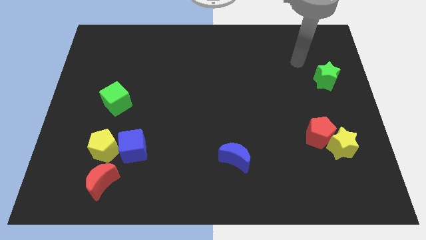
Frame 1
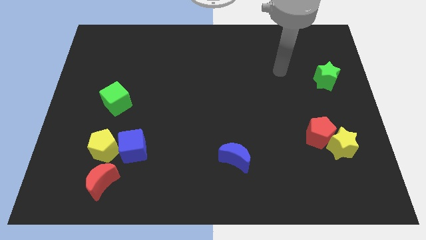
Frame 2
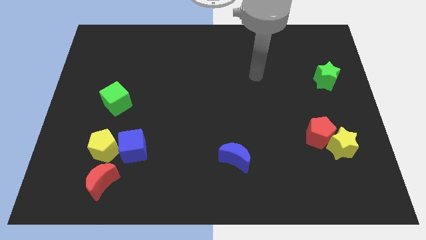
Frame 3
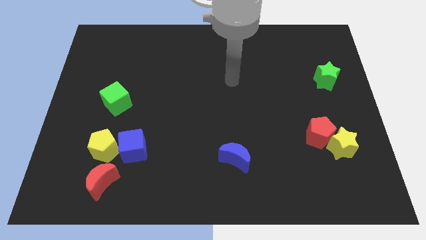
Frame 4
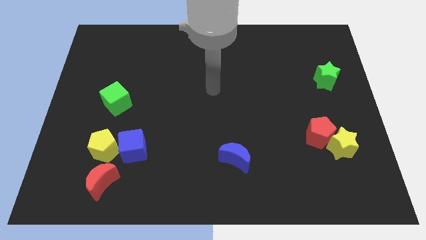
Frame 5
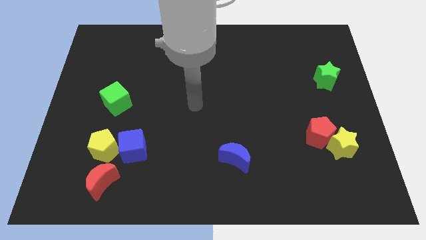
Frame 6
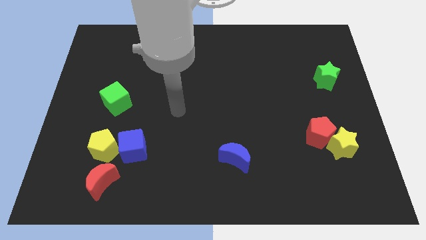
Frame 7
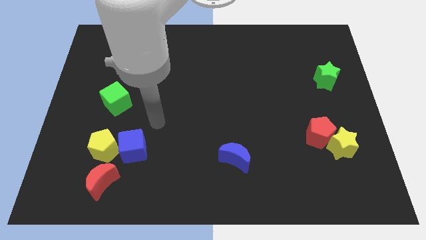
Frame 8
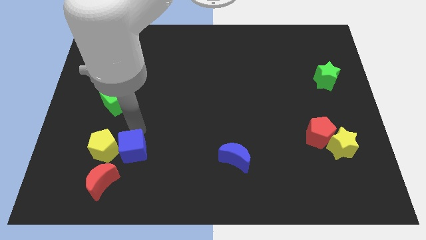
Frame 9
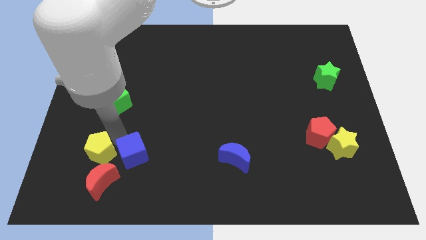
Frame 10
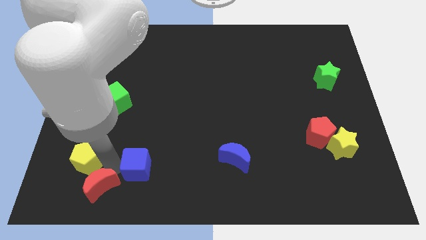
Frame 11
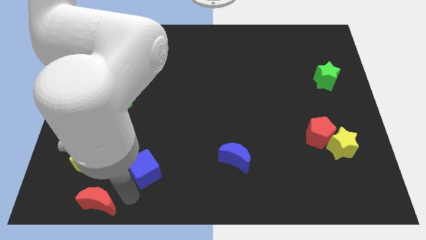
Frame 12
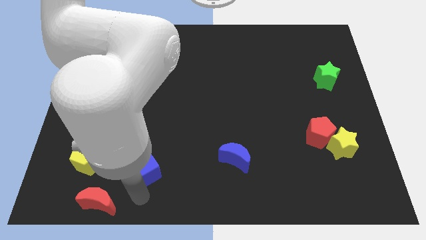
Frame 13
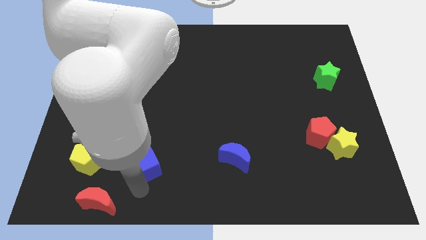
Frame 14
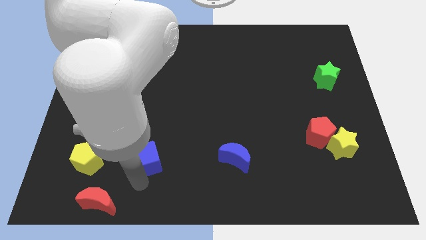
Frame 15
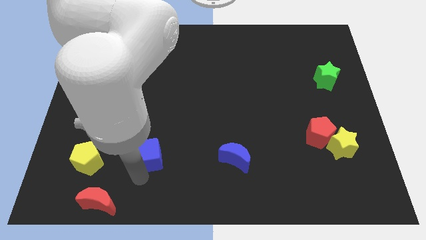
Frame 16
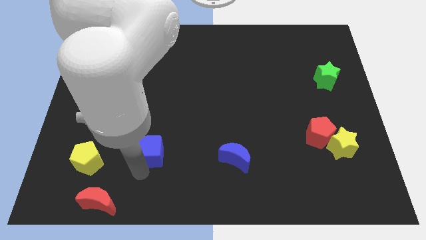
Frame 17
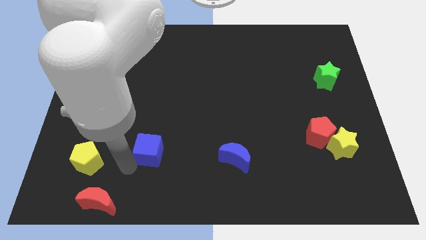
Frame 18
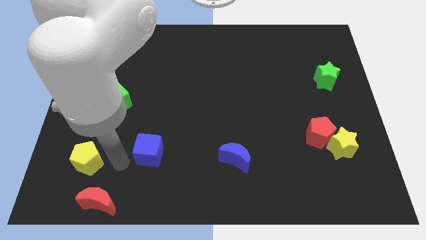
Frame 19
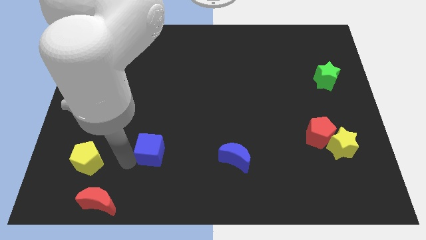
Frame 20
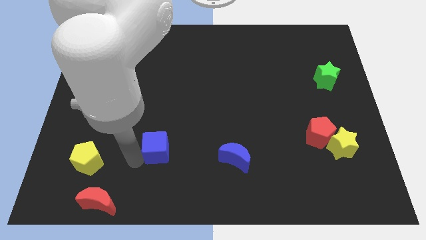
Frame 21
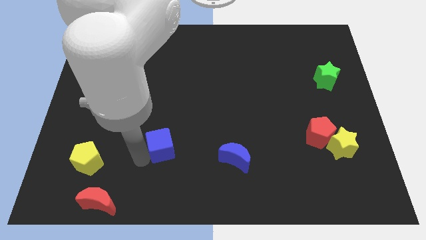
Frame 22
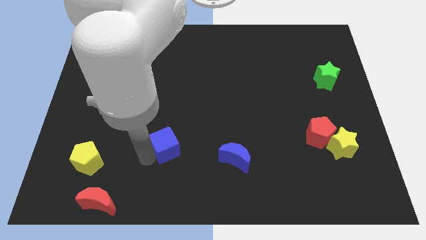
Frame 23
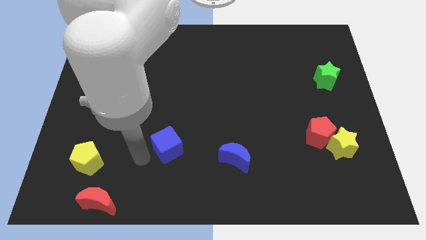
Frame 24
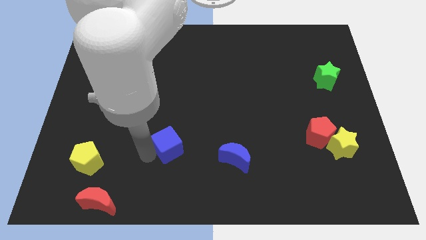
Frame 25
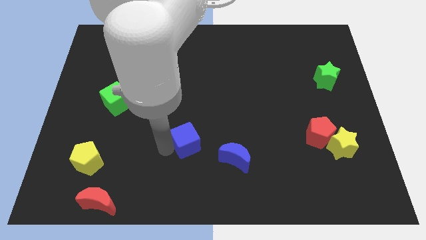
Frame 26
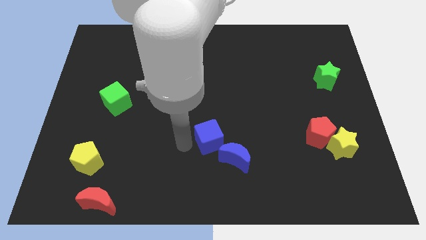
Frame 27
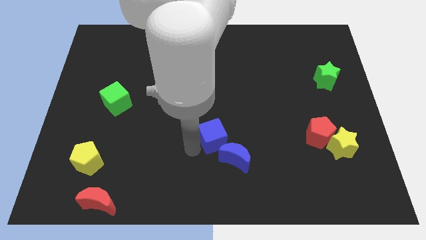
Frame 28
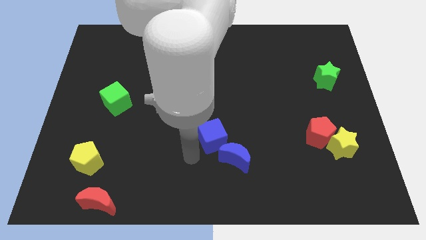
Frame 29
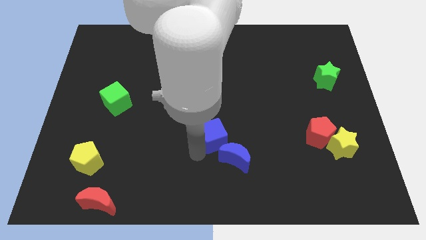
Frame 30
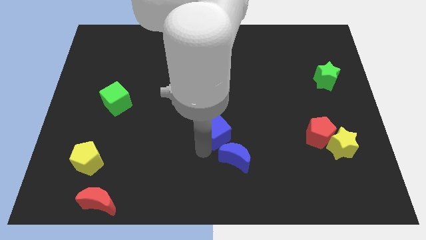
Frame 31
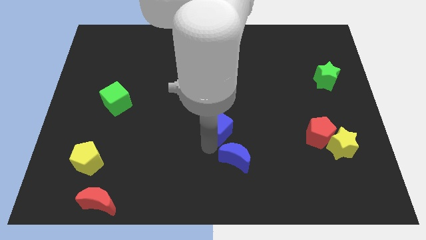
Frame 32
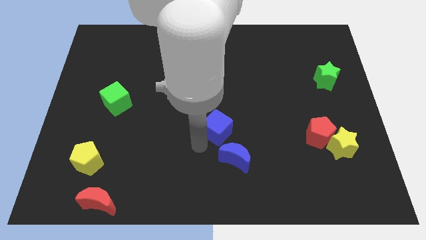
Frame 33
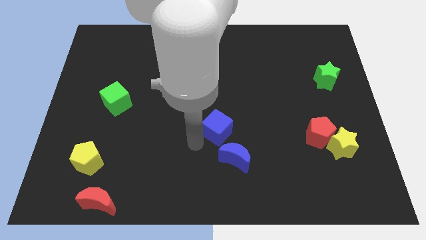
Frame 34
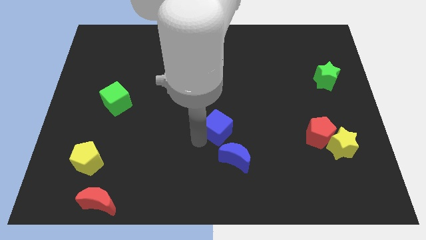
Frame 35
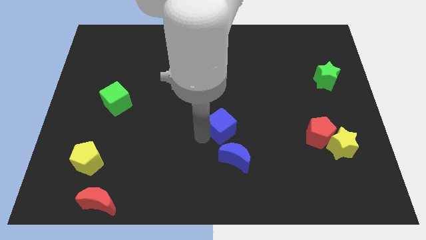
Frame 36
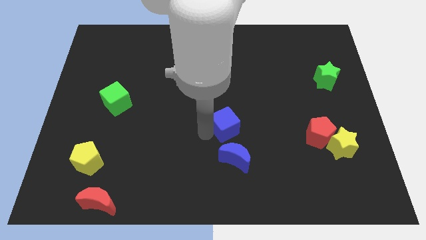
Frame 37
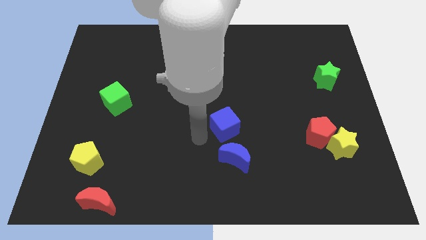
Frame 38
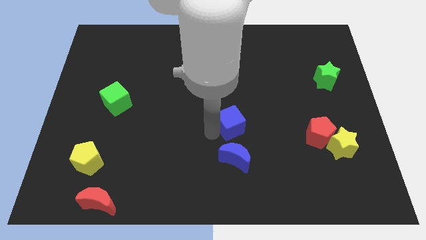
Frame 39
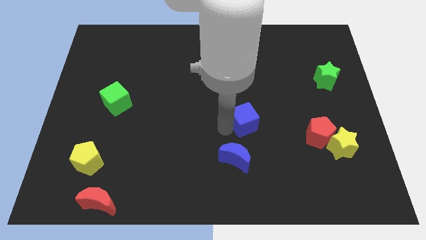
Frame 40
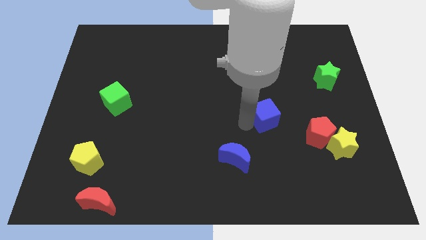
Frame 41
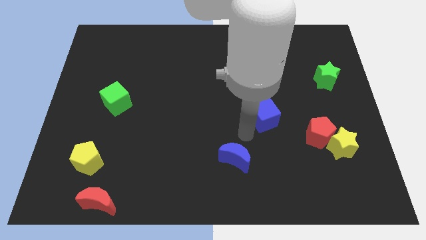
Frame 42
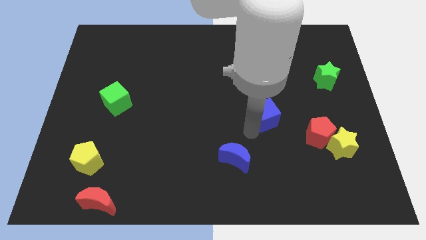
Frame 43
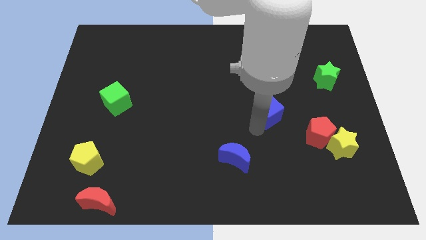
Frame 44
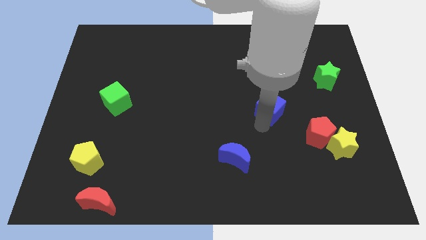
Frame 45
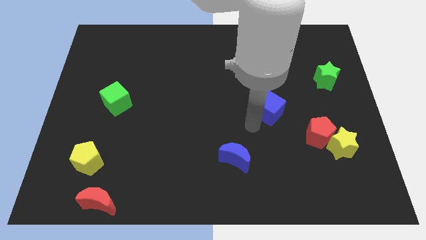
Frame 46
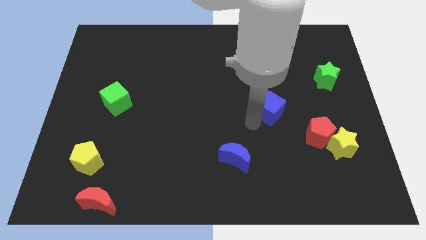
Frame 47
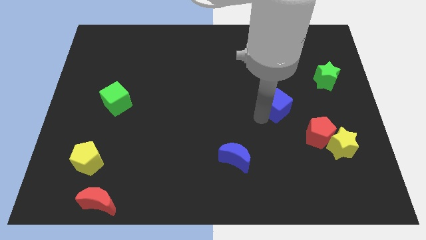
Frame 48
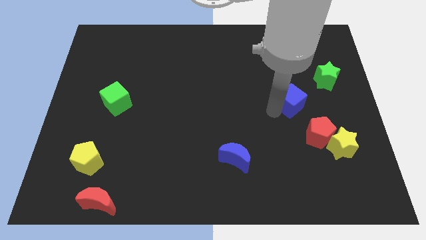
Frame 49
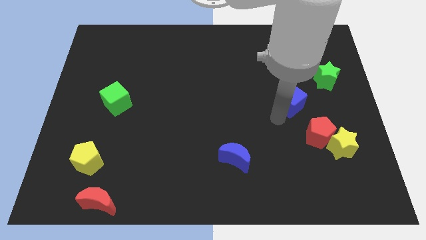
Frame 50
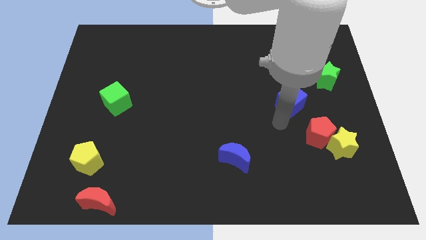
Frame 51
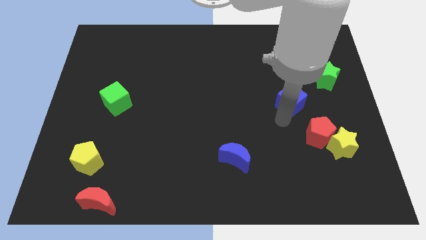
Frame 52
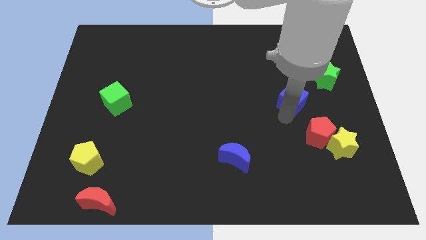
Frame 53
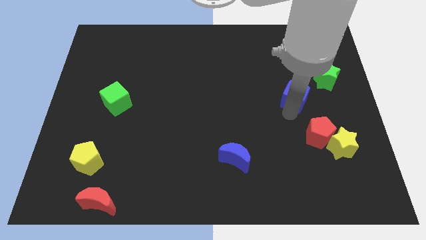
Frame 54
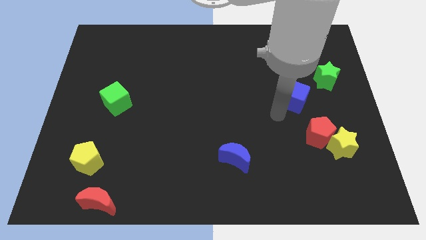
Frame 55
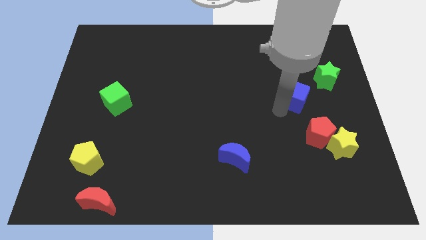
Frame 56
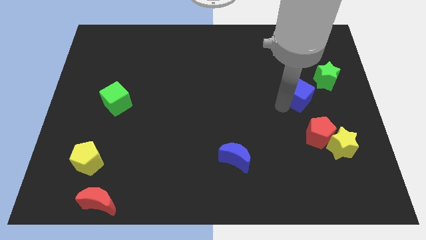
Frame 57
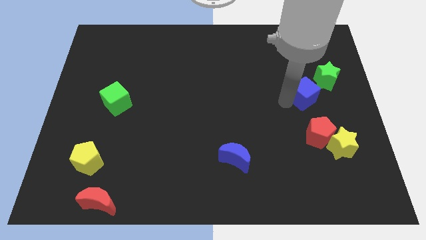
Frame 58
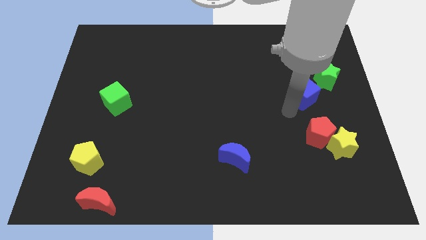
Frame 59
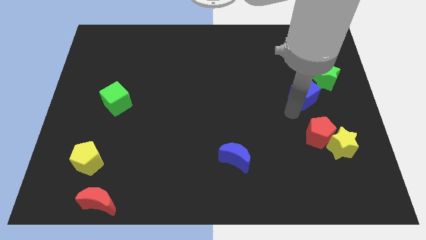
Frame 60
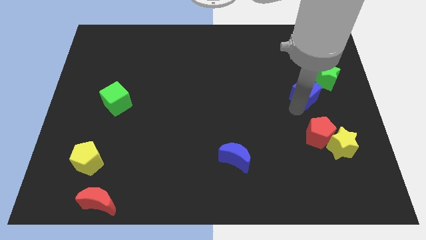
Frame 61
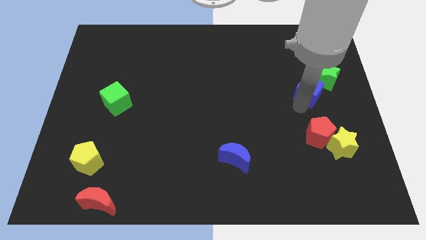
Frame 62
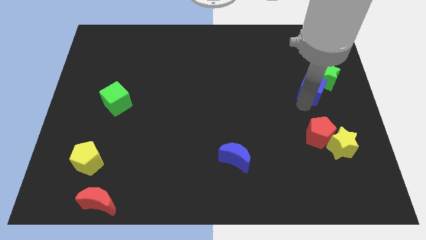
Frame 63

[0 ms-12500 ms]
slide the blue cube next to the green star
